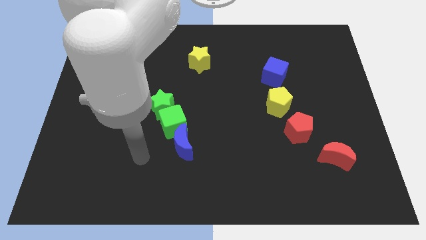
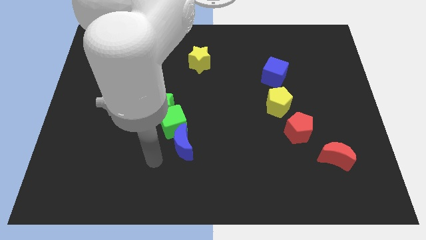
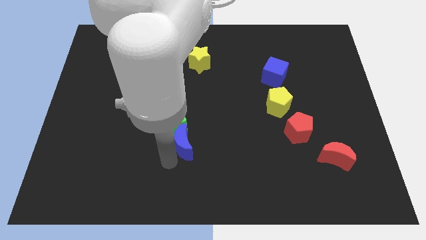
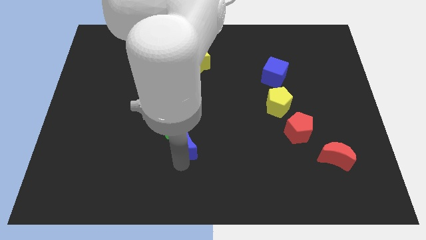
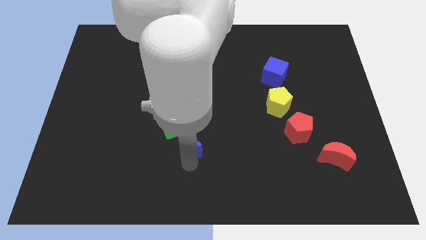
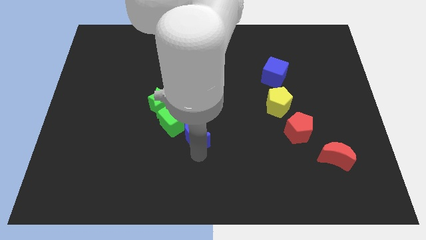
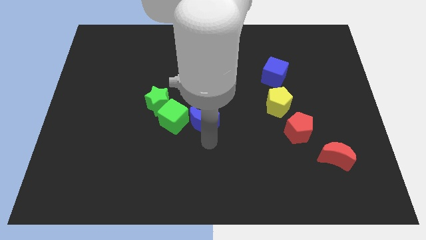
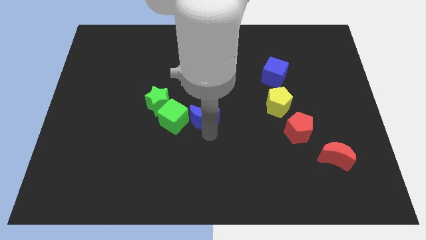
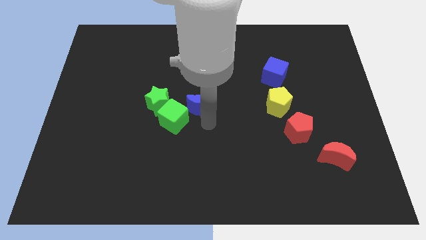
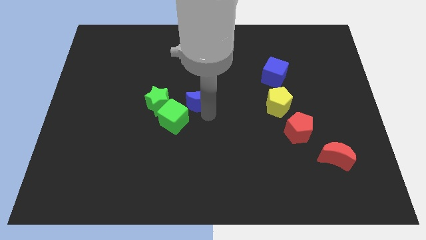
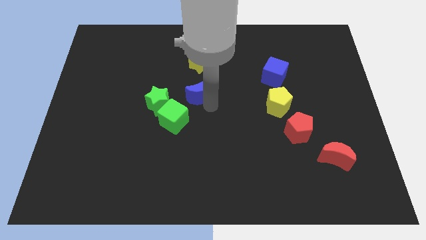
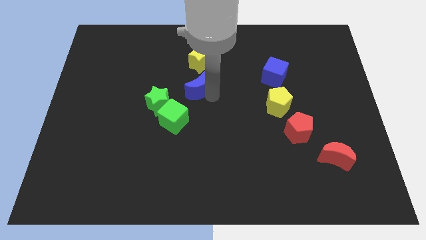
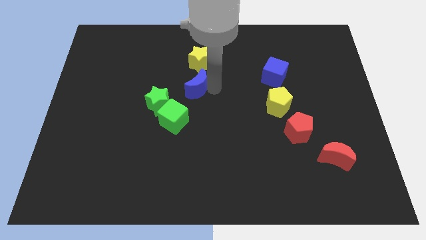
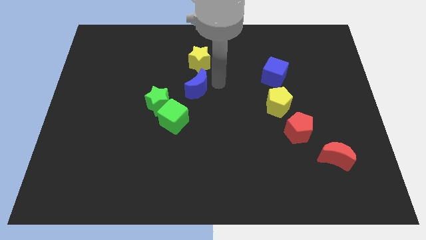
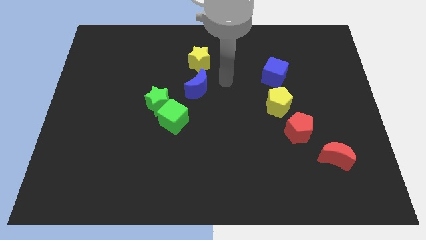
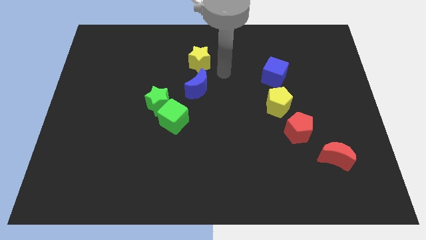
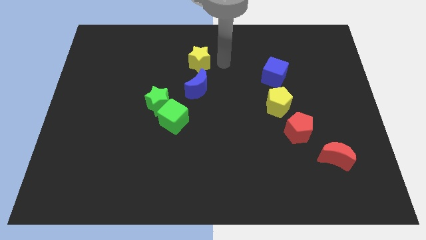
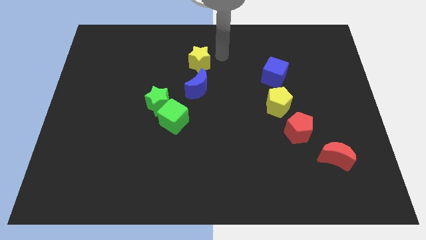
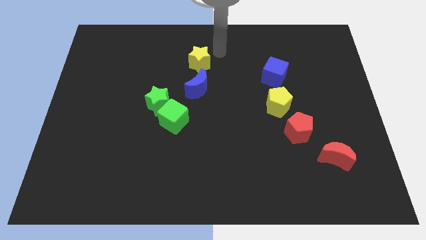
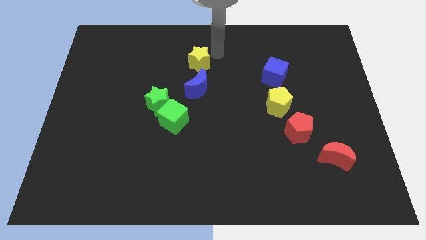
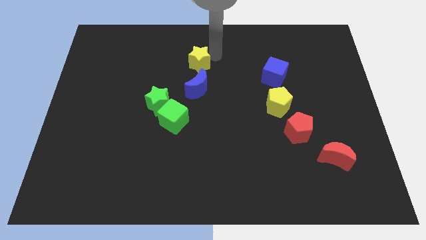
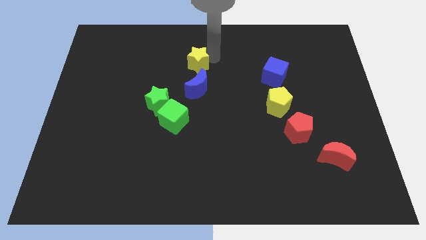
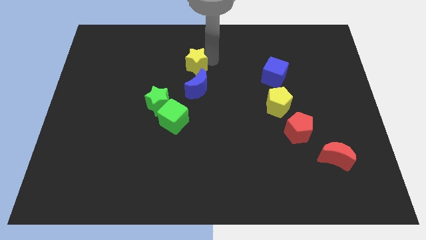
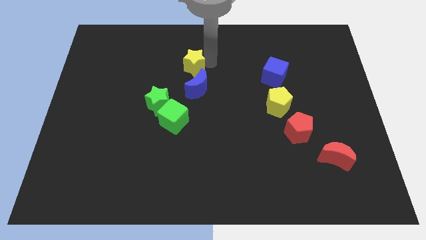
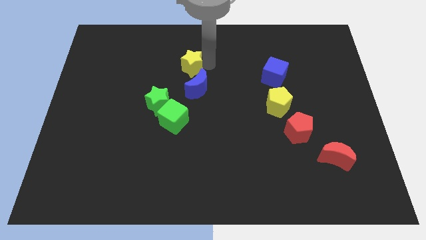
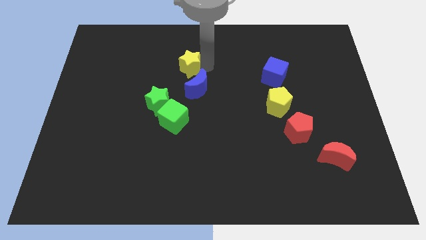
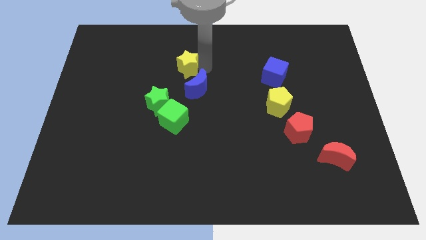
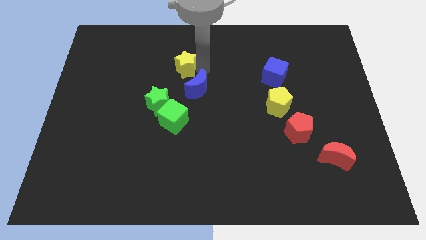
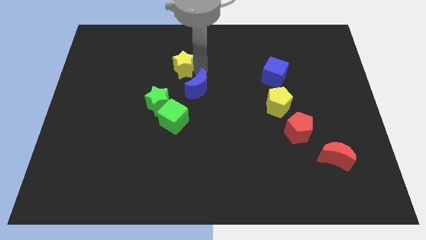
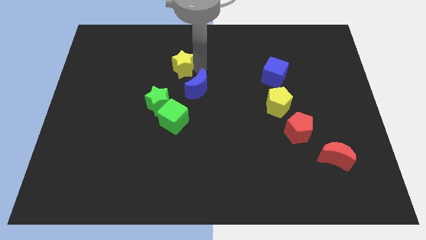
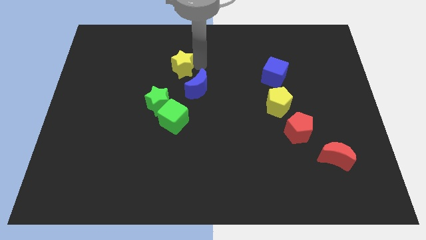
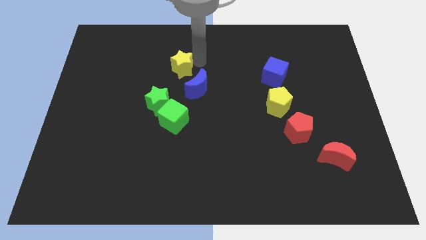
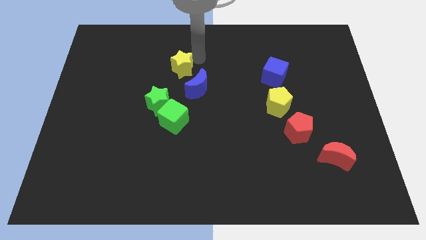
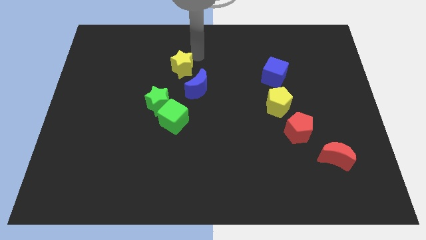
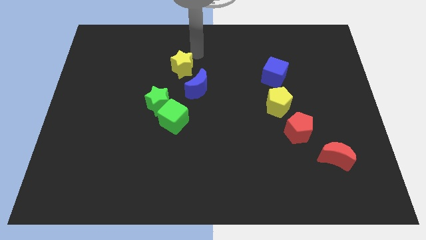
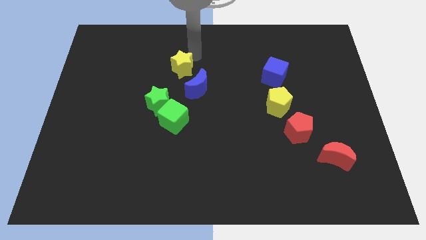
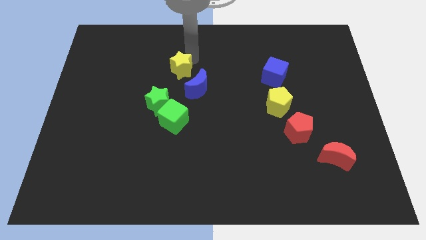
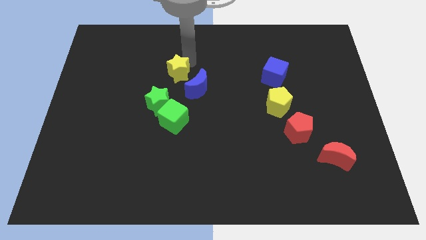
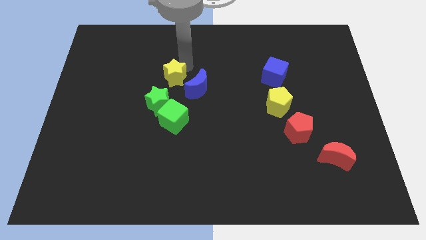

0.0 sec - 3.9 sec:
slide the yellow star down and left a little

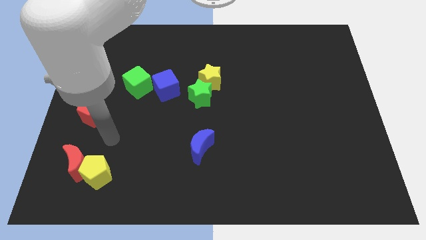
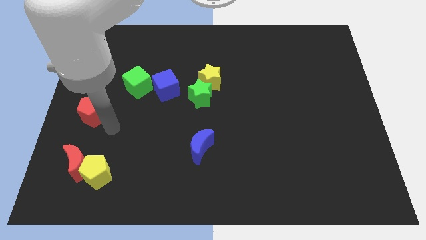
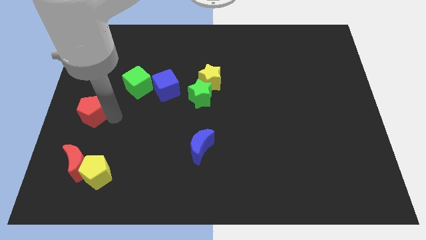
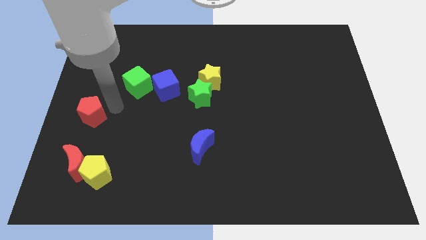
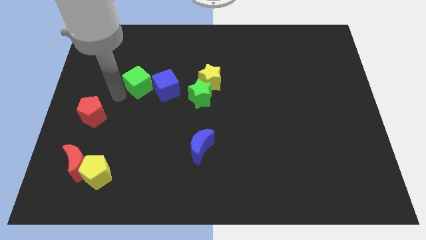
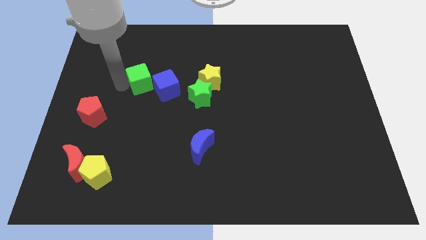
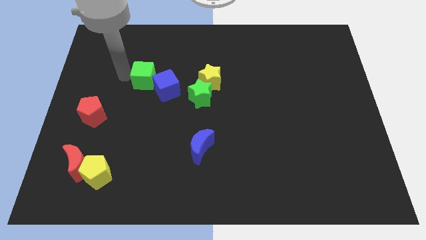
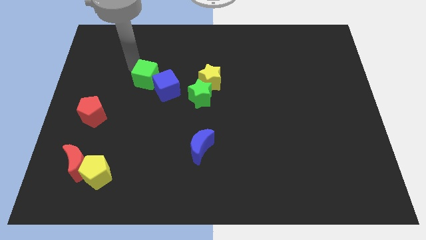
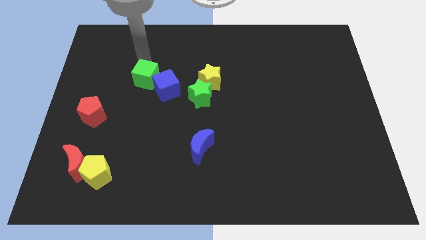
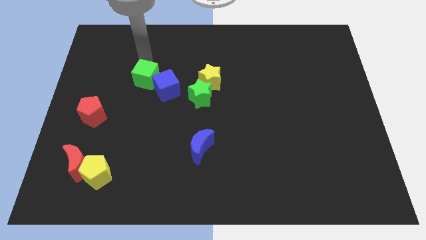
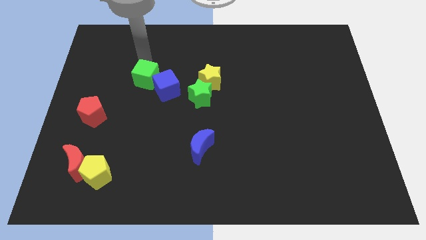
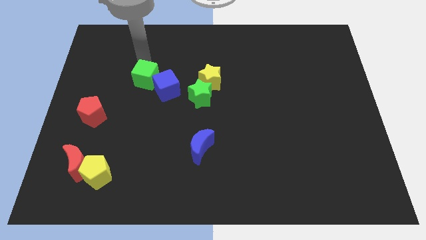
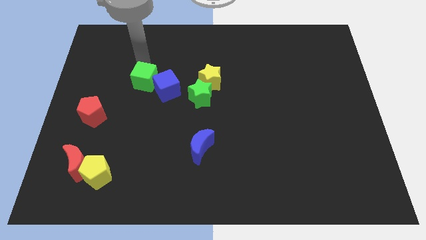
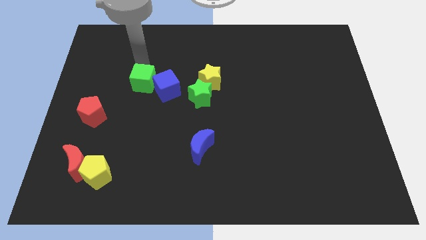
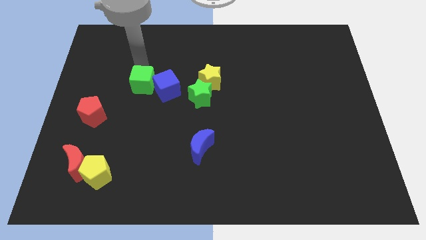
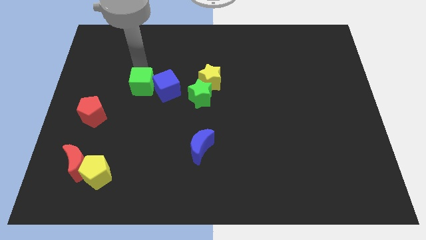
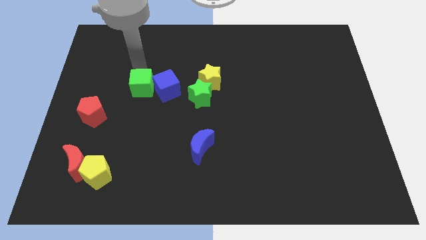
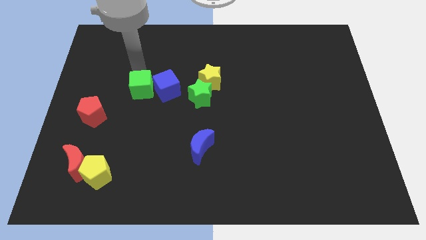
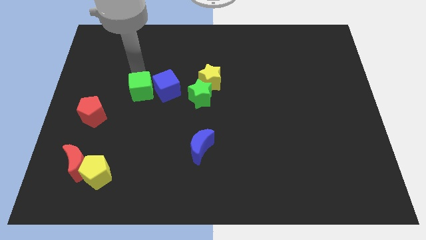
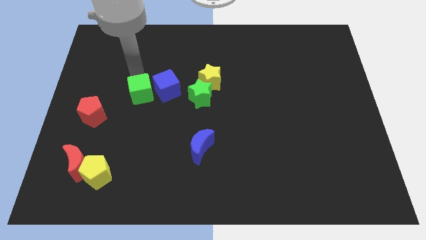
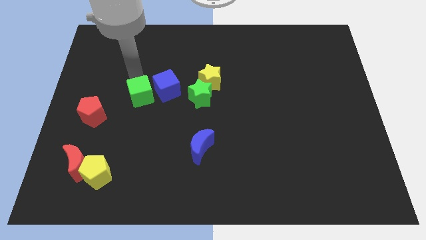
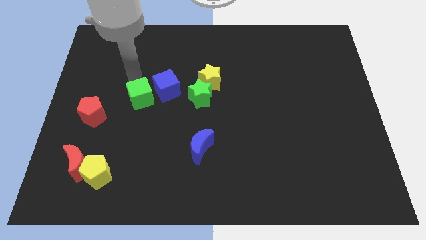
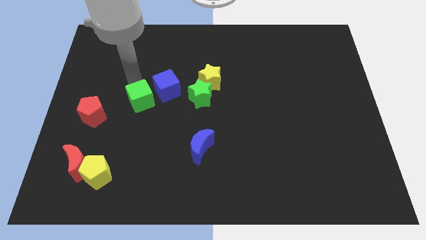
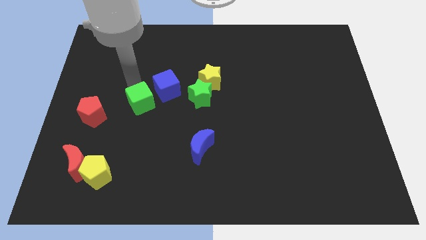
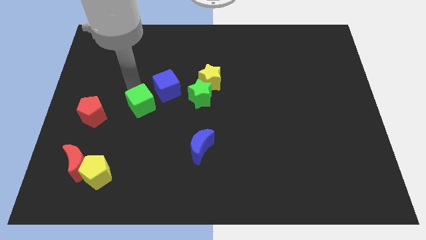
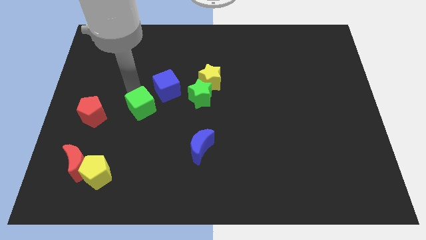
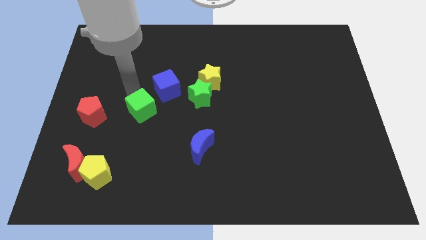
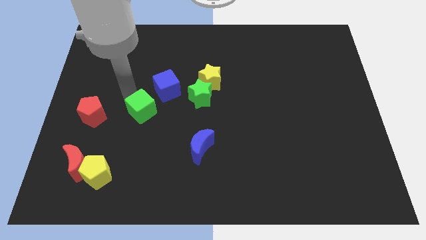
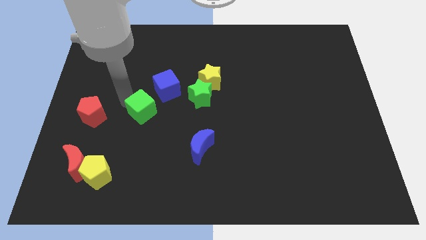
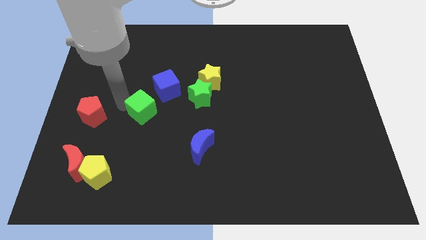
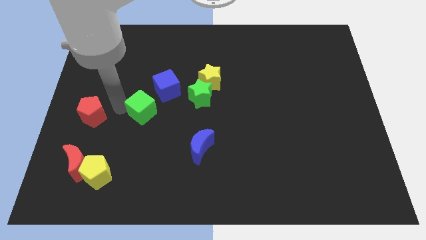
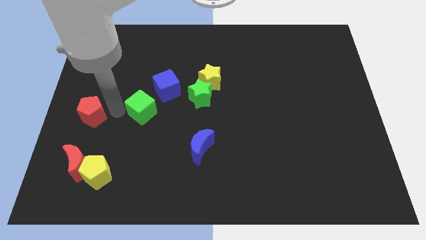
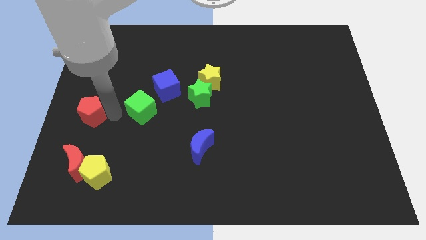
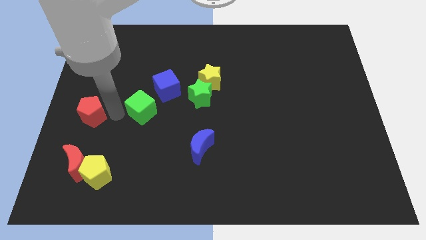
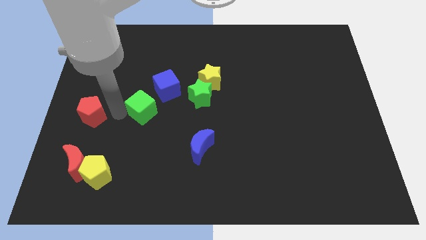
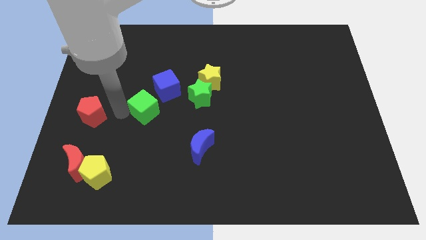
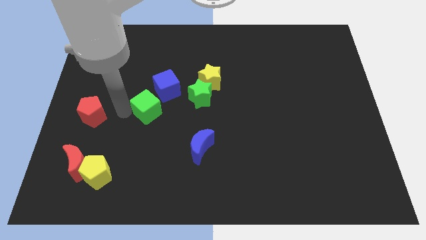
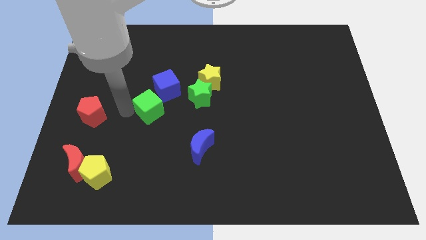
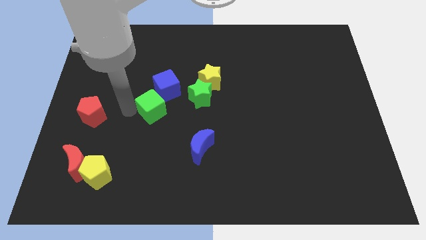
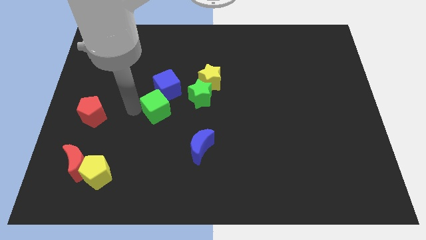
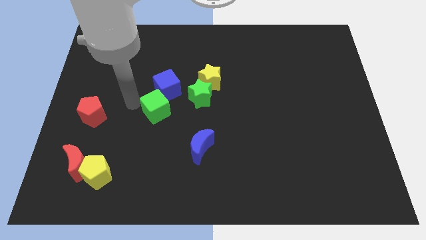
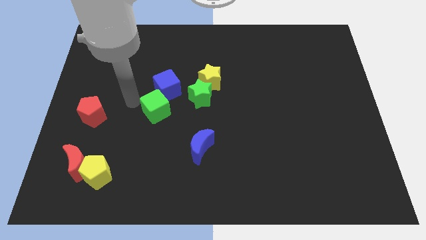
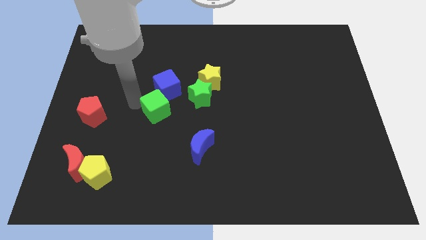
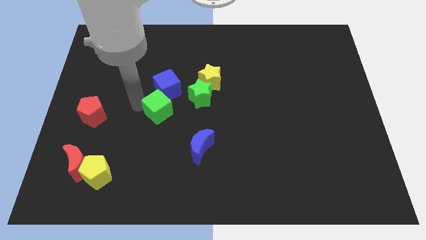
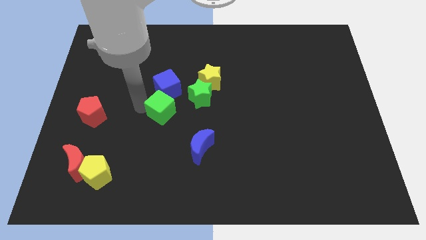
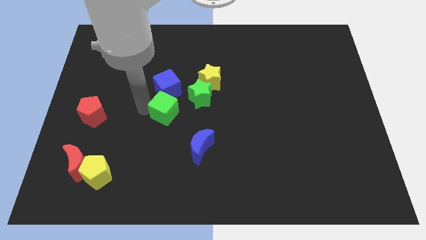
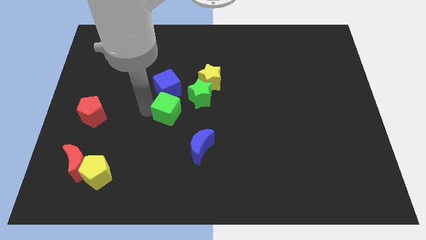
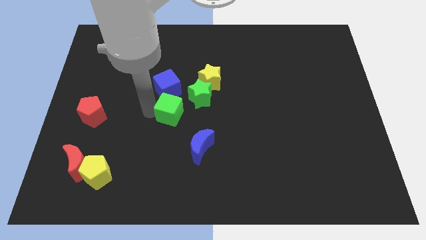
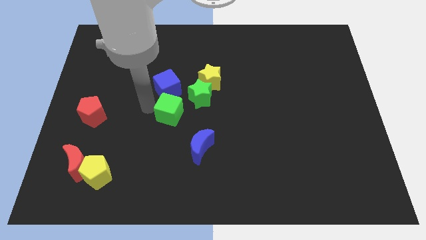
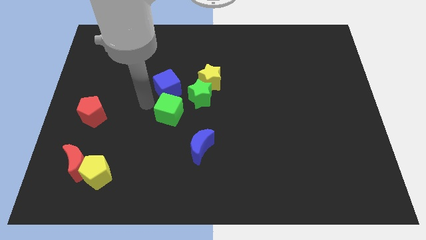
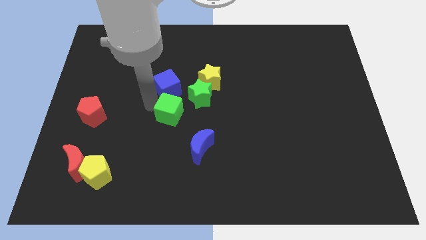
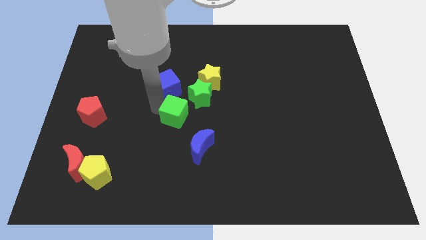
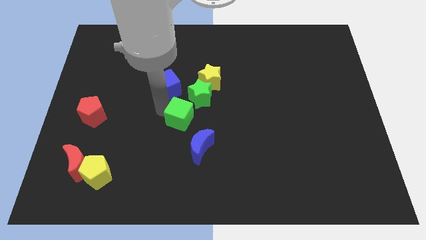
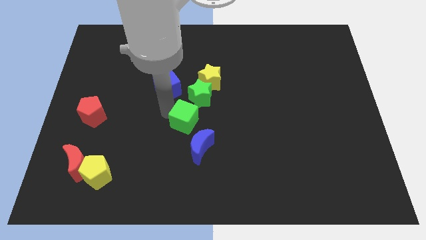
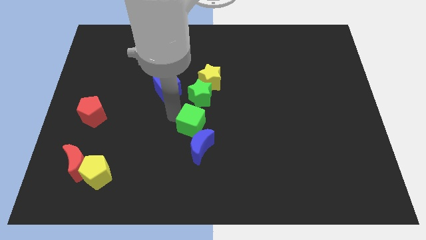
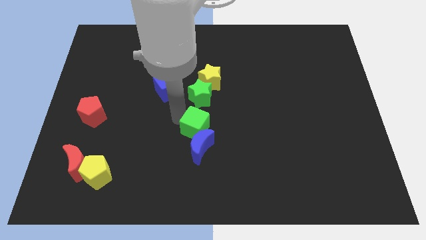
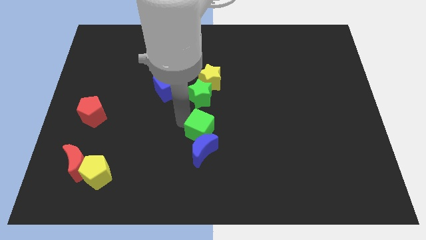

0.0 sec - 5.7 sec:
move the green cube down and to the right diagonally
